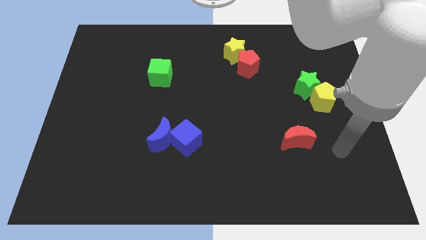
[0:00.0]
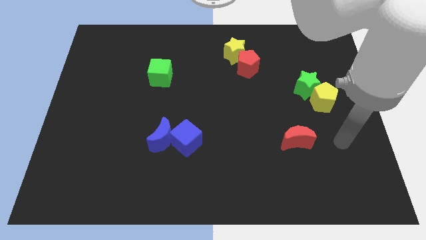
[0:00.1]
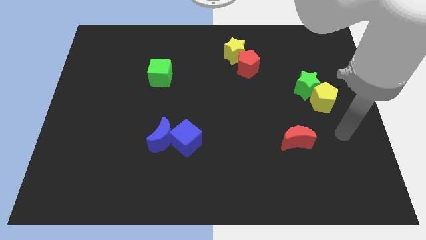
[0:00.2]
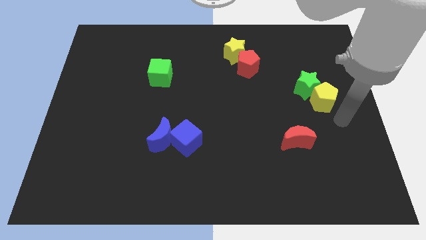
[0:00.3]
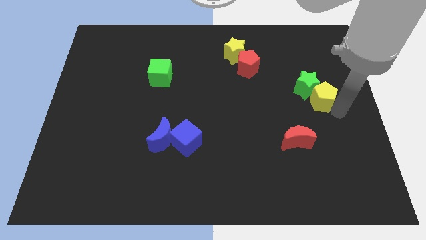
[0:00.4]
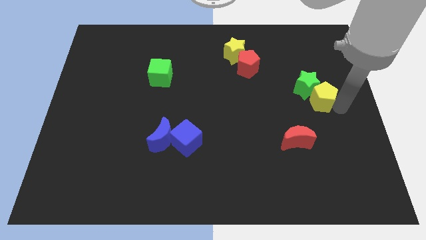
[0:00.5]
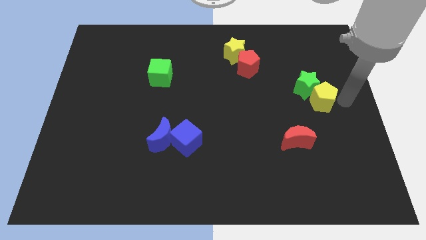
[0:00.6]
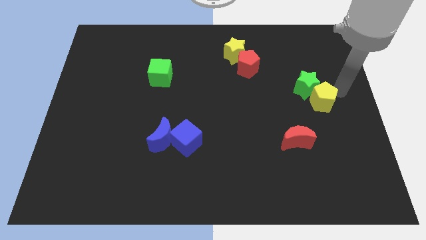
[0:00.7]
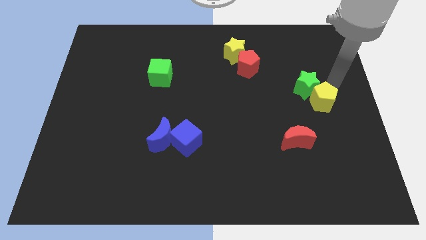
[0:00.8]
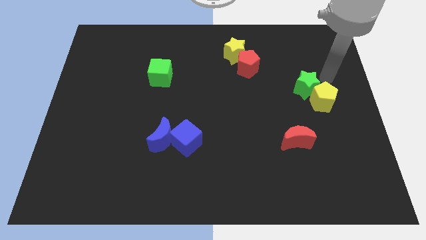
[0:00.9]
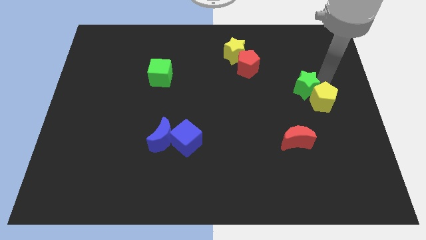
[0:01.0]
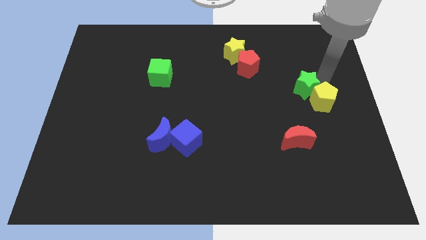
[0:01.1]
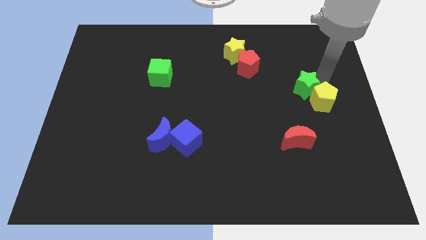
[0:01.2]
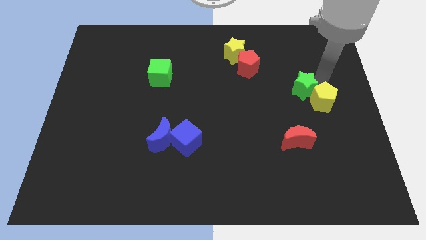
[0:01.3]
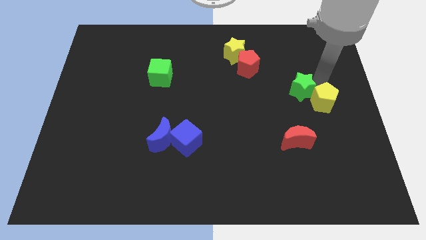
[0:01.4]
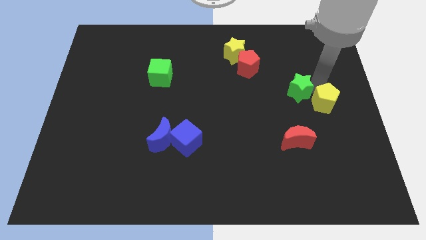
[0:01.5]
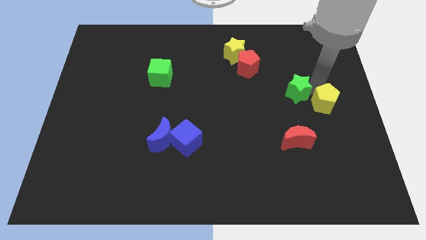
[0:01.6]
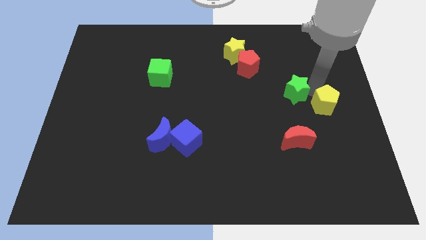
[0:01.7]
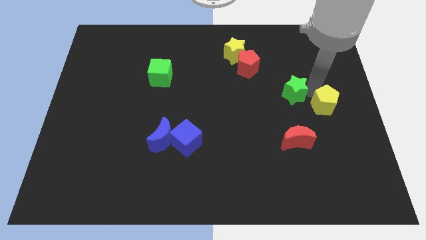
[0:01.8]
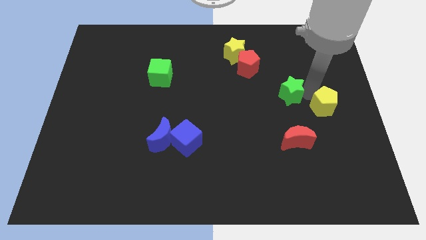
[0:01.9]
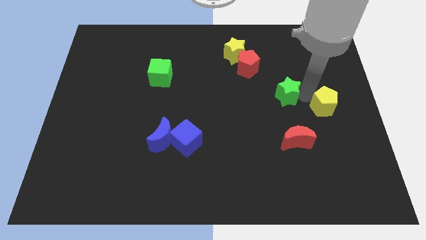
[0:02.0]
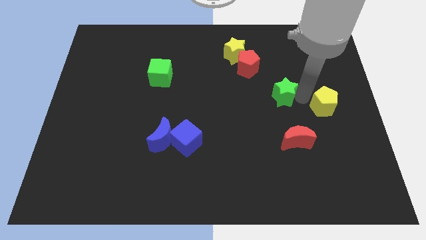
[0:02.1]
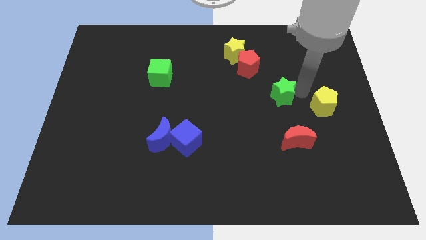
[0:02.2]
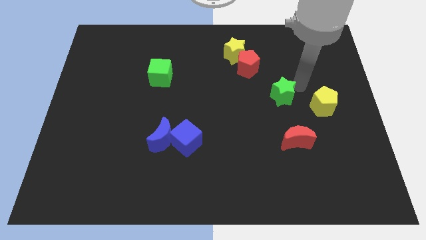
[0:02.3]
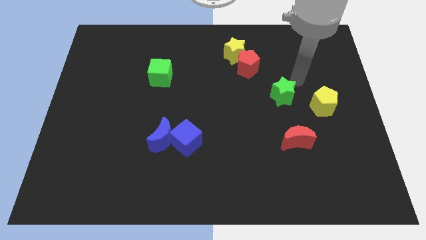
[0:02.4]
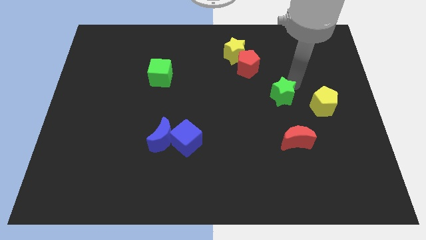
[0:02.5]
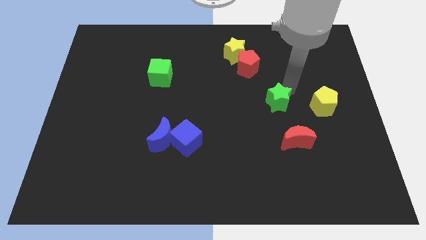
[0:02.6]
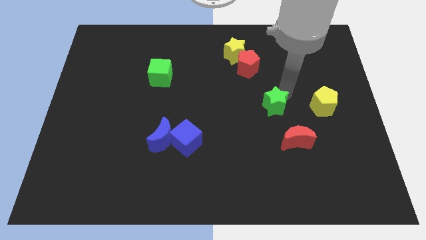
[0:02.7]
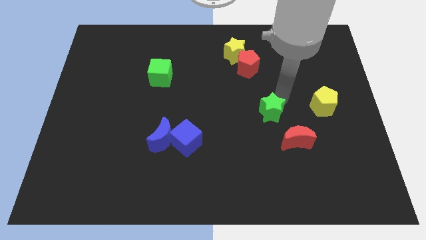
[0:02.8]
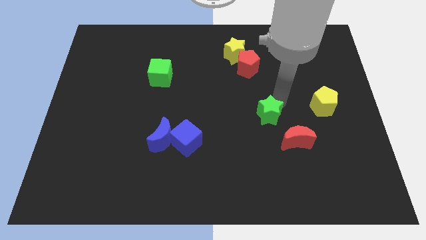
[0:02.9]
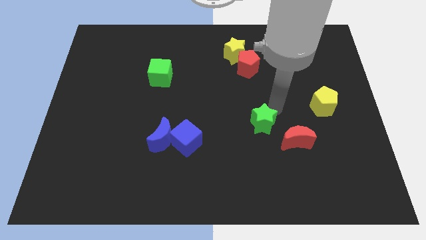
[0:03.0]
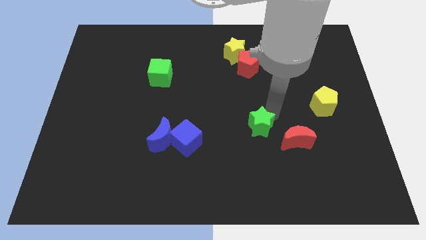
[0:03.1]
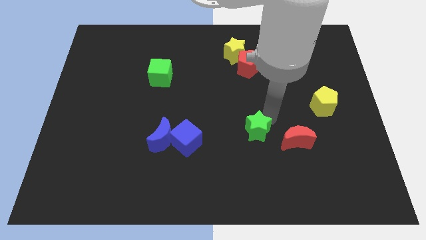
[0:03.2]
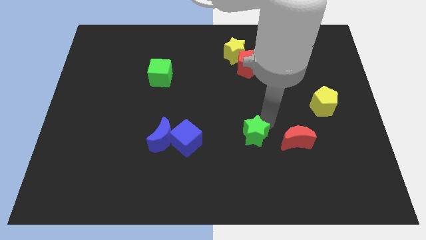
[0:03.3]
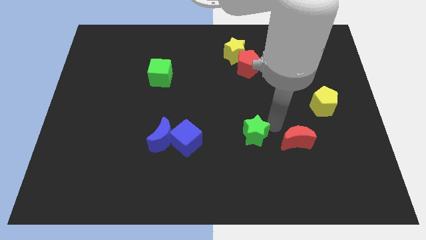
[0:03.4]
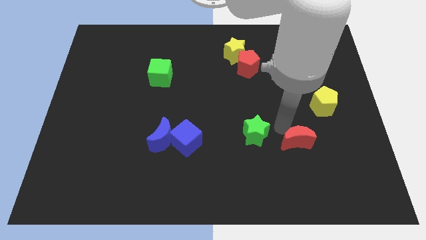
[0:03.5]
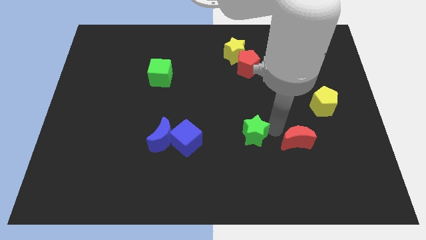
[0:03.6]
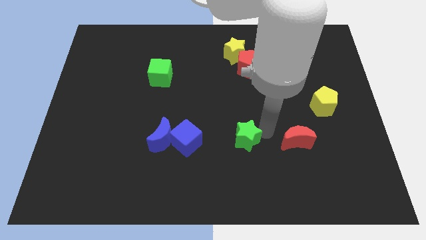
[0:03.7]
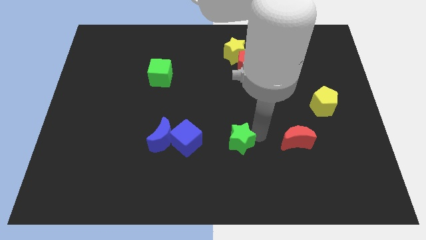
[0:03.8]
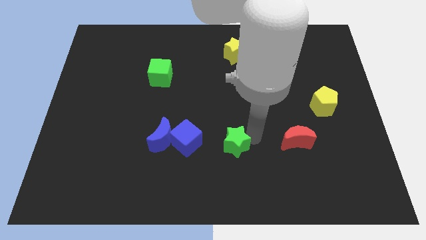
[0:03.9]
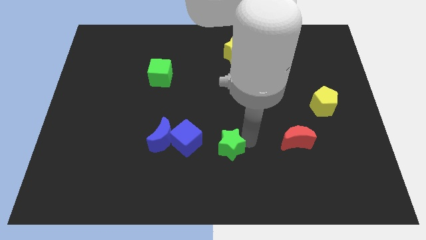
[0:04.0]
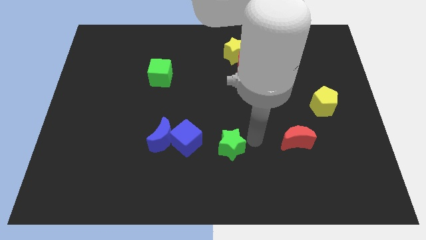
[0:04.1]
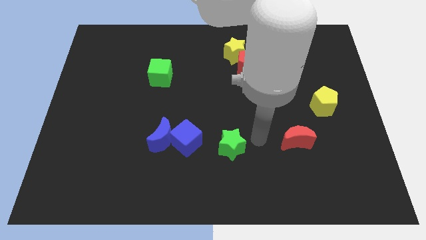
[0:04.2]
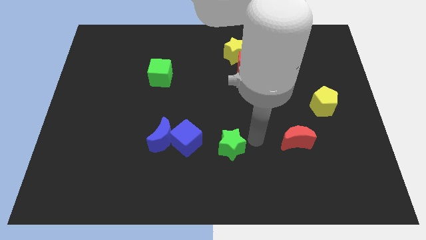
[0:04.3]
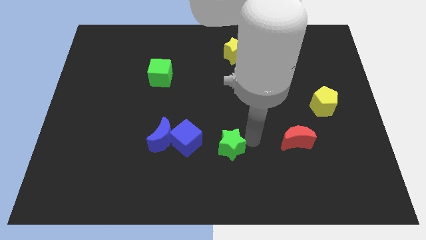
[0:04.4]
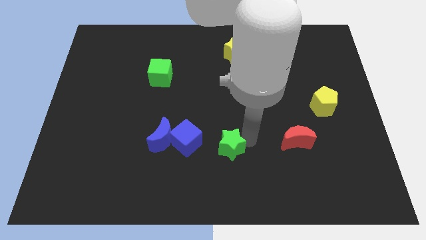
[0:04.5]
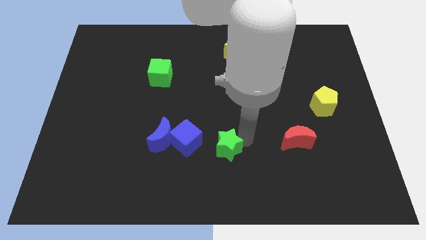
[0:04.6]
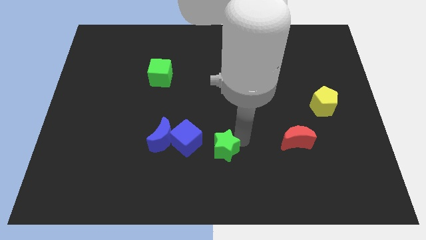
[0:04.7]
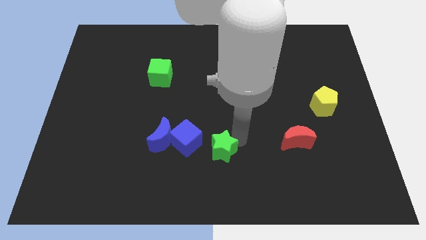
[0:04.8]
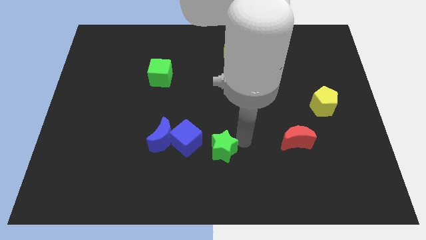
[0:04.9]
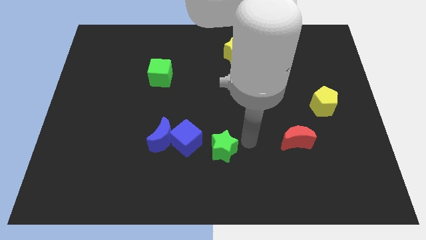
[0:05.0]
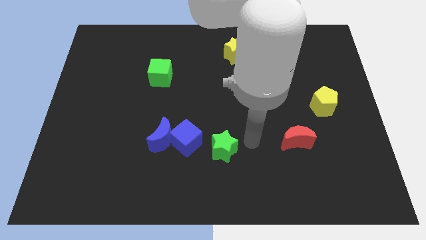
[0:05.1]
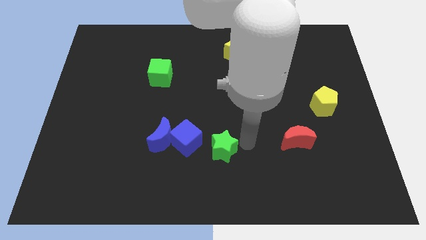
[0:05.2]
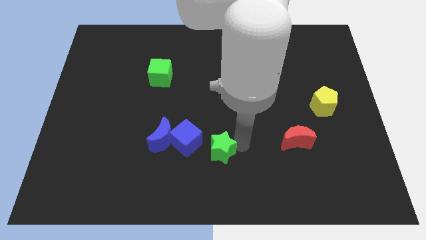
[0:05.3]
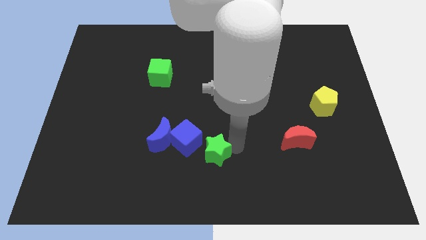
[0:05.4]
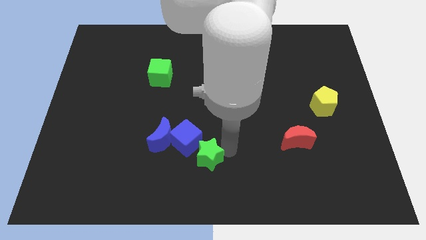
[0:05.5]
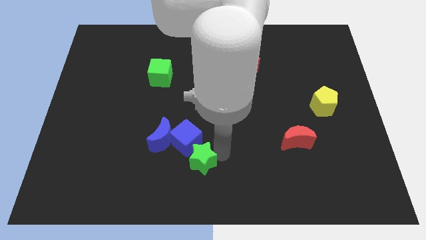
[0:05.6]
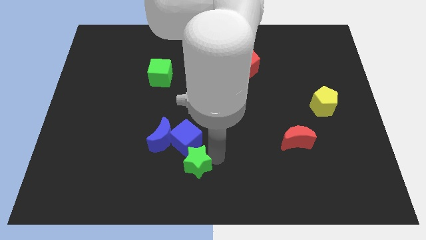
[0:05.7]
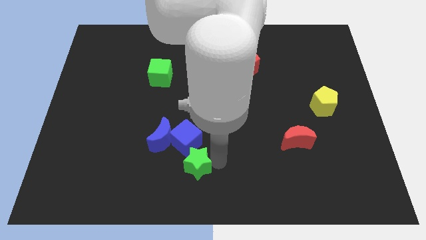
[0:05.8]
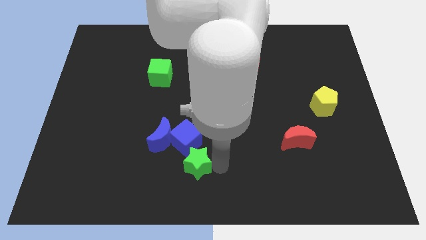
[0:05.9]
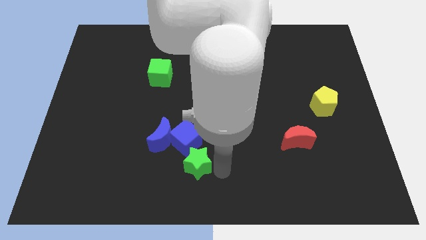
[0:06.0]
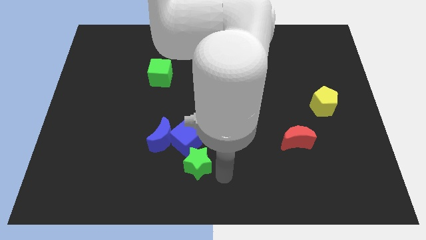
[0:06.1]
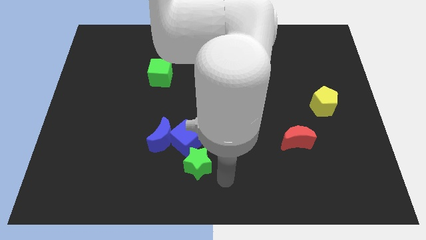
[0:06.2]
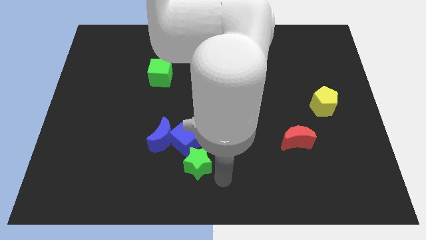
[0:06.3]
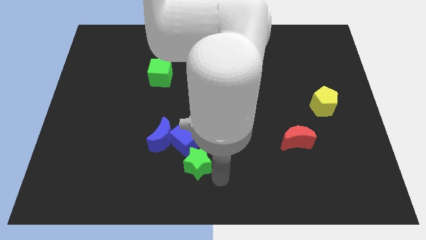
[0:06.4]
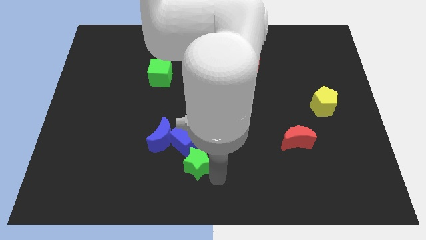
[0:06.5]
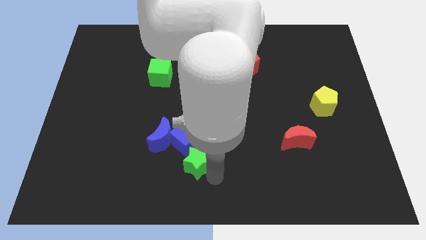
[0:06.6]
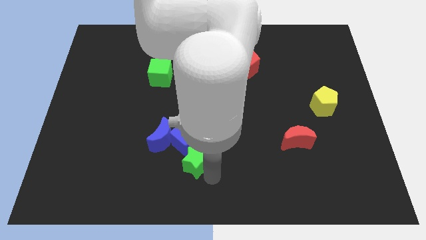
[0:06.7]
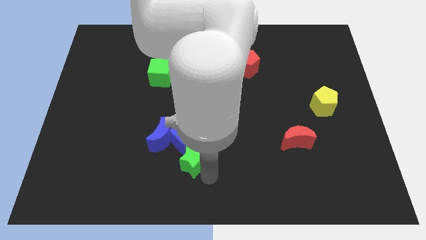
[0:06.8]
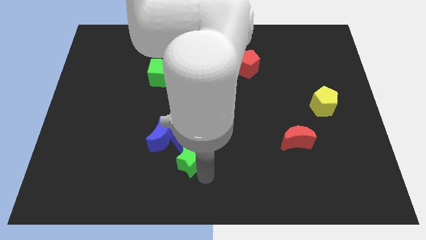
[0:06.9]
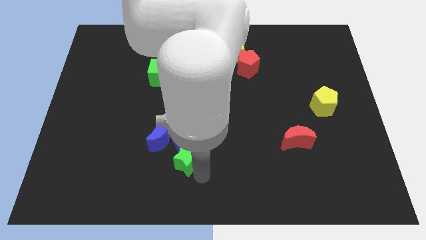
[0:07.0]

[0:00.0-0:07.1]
put the green star to the bottom left side of the blue cube
